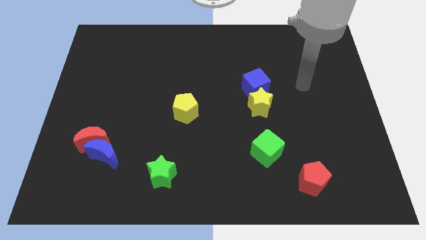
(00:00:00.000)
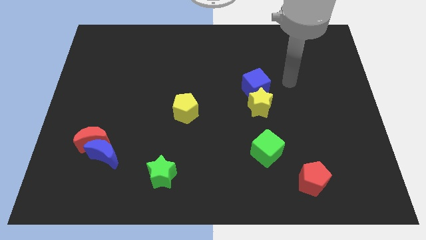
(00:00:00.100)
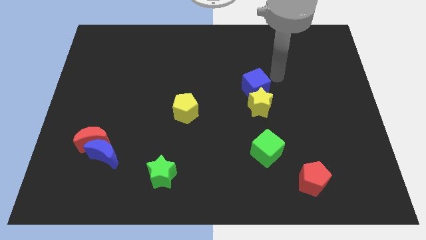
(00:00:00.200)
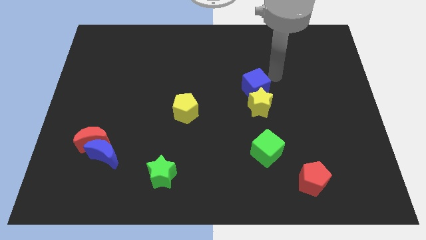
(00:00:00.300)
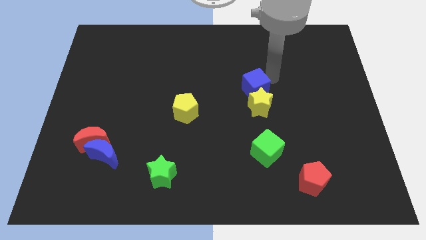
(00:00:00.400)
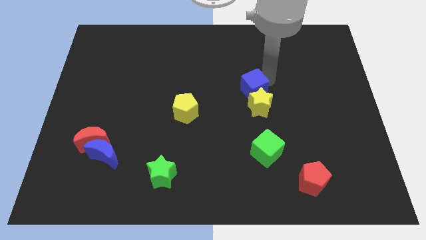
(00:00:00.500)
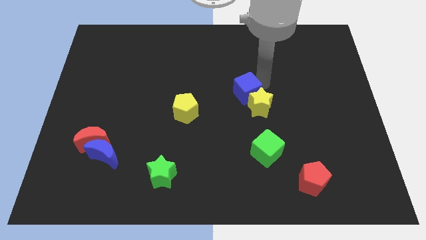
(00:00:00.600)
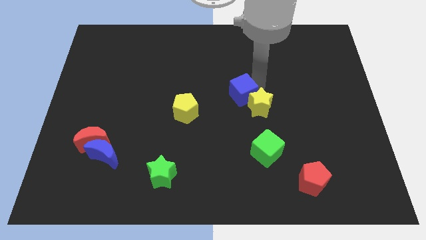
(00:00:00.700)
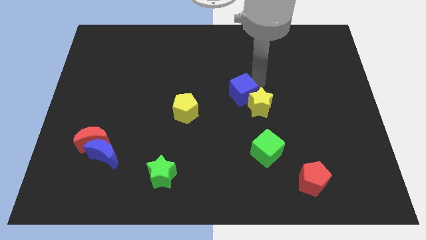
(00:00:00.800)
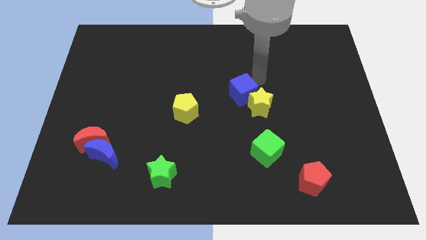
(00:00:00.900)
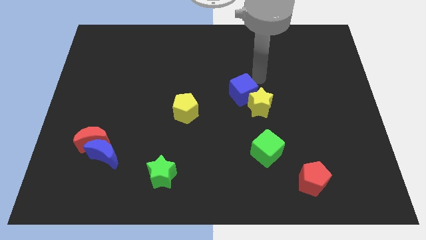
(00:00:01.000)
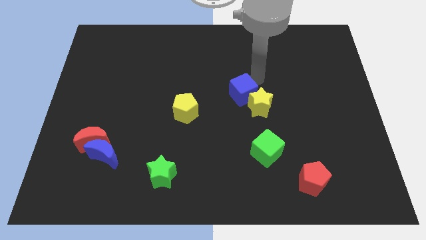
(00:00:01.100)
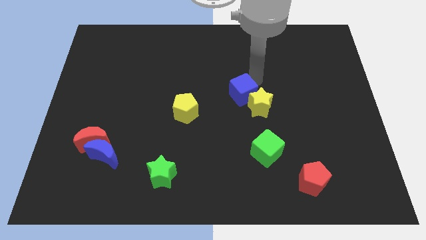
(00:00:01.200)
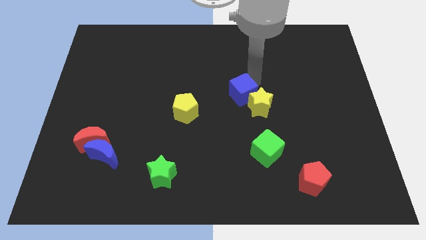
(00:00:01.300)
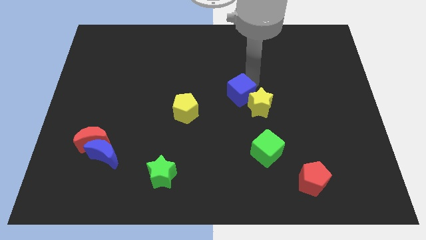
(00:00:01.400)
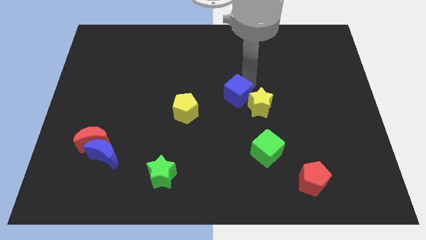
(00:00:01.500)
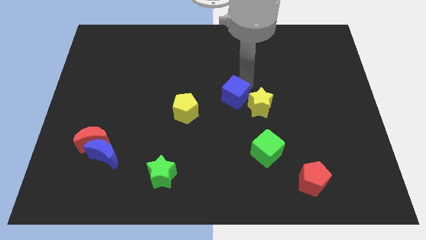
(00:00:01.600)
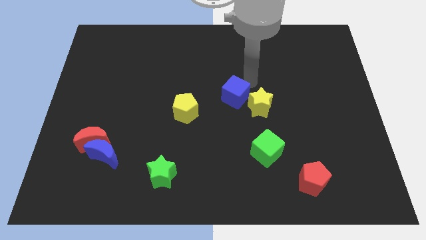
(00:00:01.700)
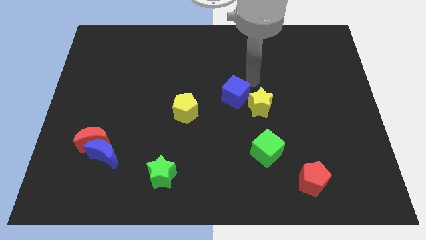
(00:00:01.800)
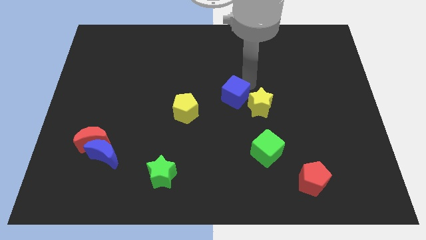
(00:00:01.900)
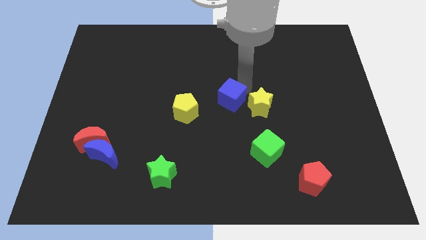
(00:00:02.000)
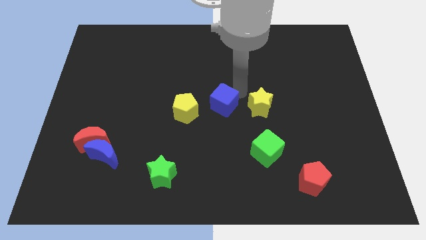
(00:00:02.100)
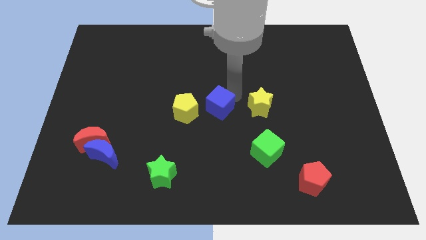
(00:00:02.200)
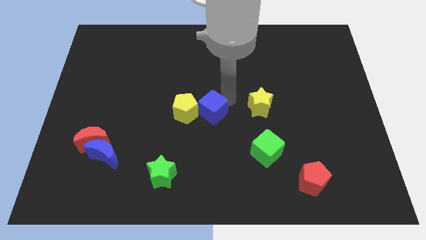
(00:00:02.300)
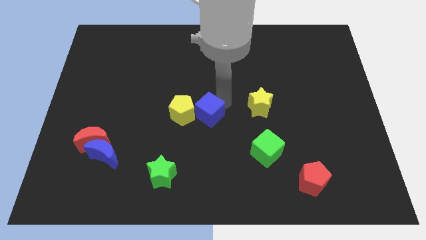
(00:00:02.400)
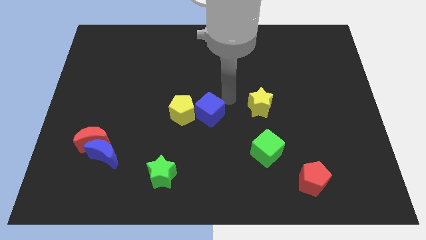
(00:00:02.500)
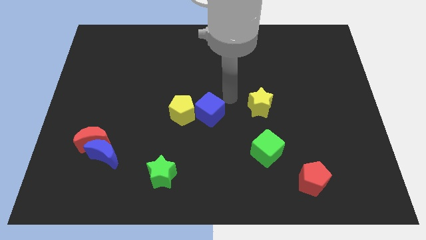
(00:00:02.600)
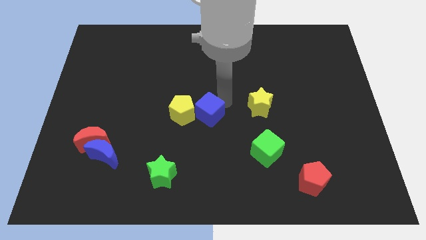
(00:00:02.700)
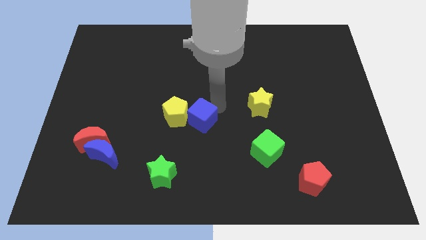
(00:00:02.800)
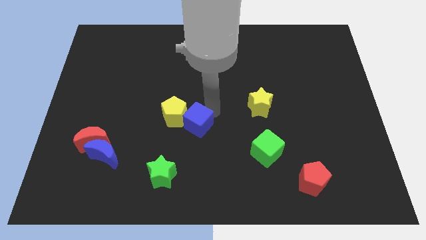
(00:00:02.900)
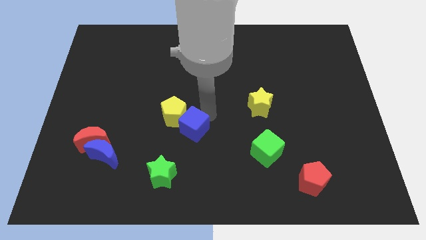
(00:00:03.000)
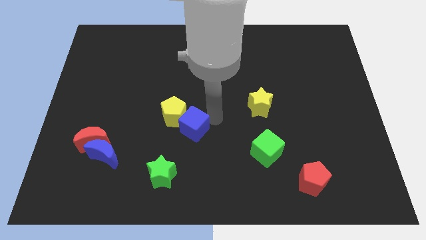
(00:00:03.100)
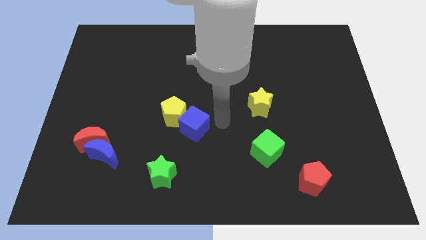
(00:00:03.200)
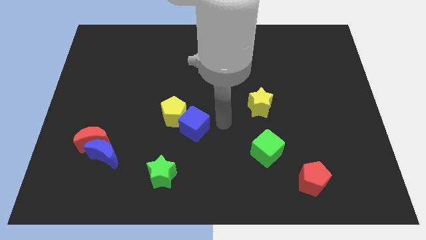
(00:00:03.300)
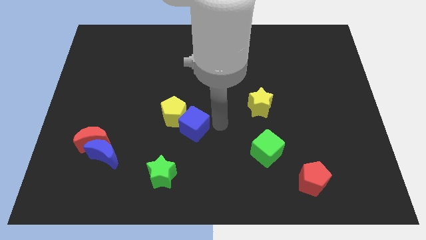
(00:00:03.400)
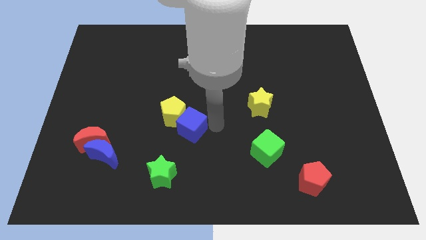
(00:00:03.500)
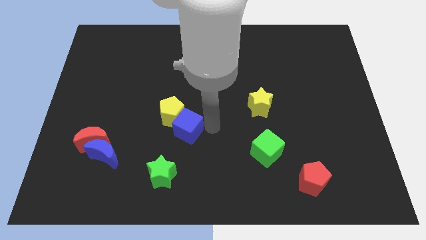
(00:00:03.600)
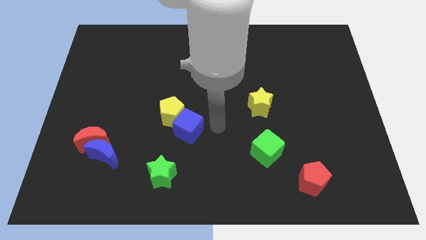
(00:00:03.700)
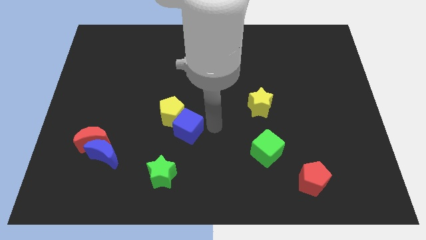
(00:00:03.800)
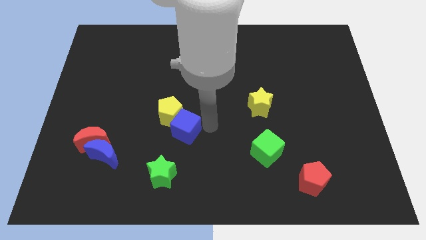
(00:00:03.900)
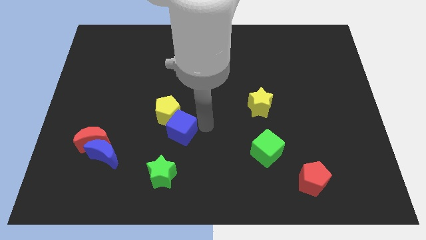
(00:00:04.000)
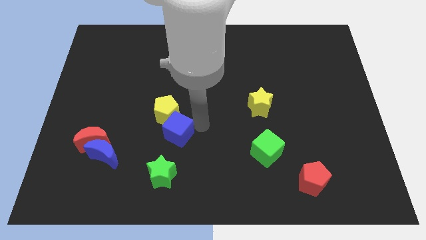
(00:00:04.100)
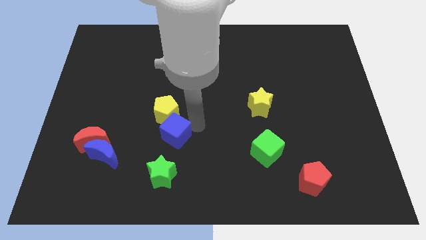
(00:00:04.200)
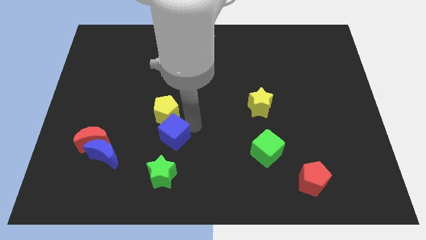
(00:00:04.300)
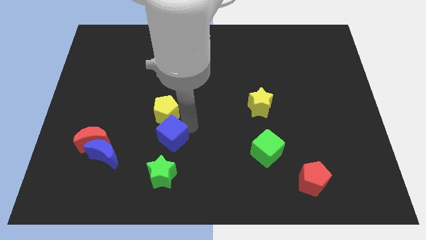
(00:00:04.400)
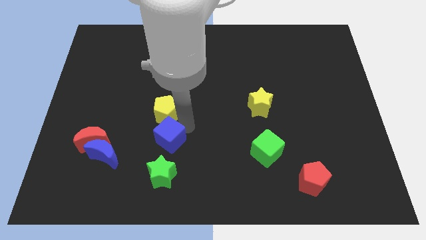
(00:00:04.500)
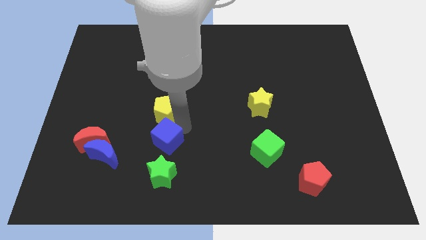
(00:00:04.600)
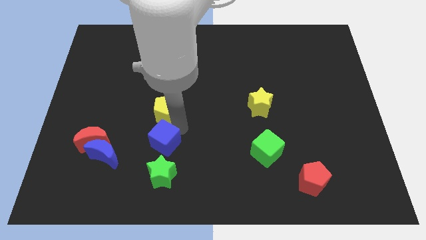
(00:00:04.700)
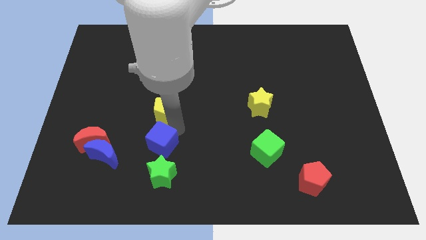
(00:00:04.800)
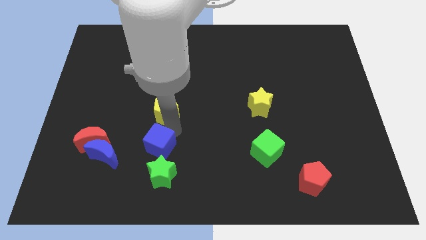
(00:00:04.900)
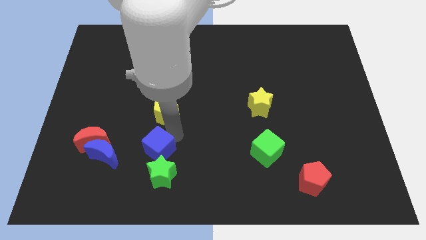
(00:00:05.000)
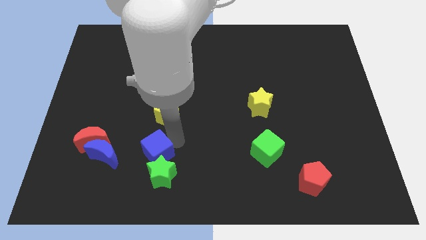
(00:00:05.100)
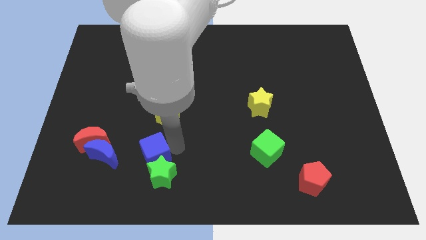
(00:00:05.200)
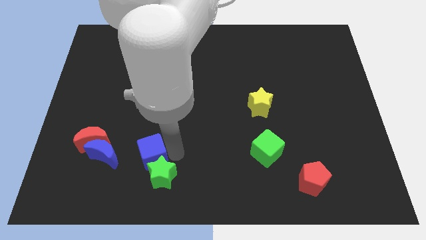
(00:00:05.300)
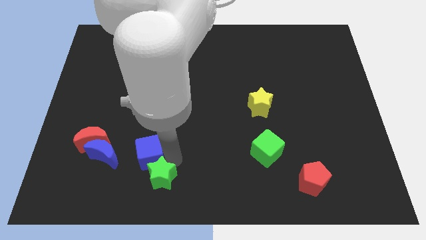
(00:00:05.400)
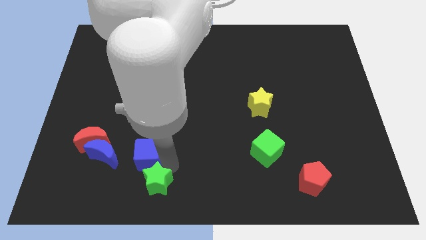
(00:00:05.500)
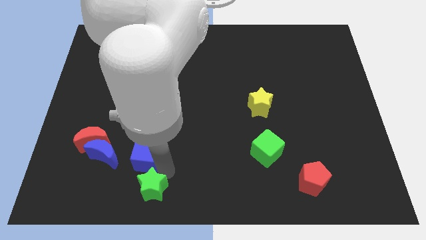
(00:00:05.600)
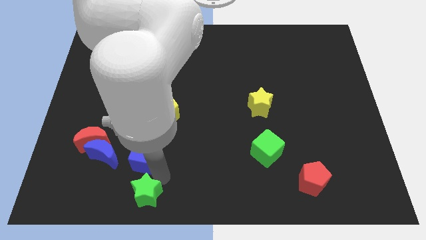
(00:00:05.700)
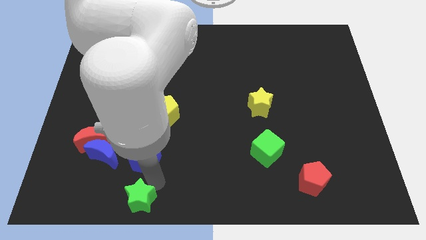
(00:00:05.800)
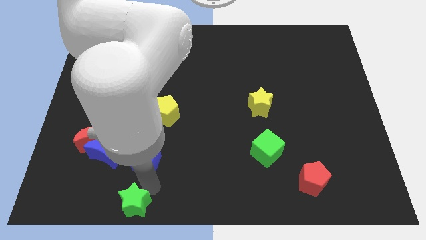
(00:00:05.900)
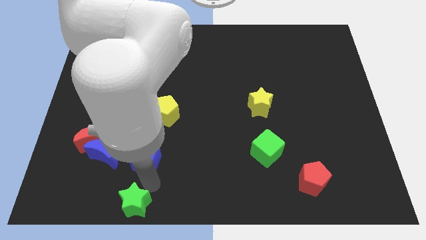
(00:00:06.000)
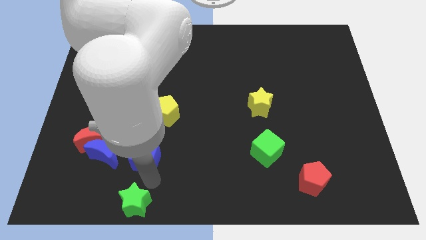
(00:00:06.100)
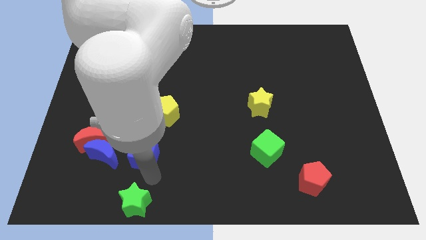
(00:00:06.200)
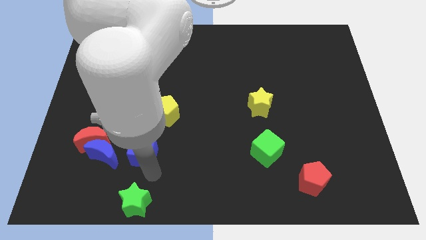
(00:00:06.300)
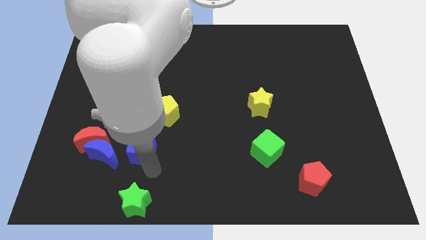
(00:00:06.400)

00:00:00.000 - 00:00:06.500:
move the blue cube to the bottom left side of the yellow pentagon
